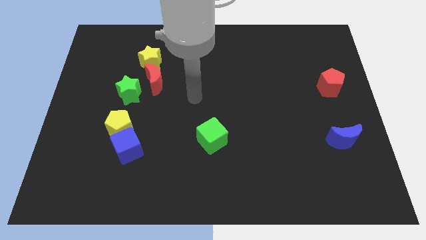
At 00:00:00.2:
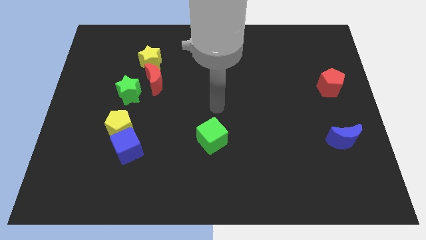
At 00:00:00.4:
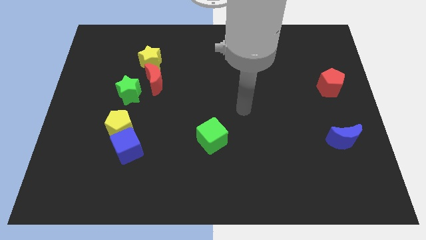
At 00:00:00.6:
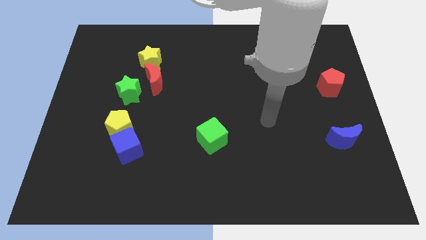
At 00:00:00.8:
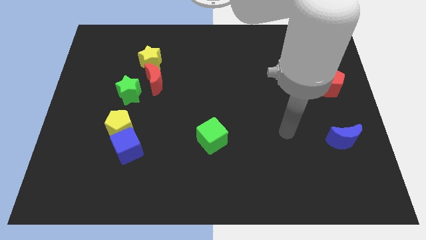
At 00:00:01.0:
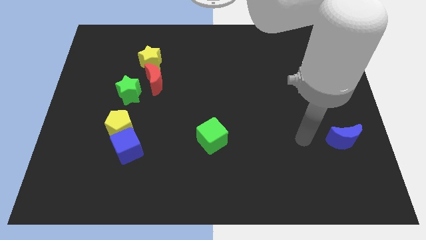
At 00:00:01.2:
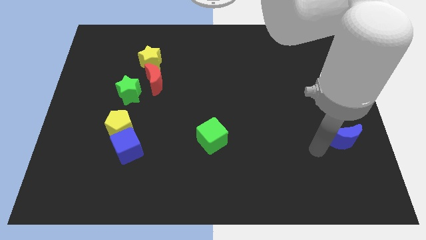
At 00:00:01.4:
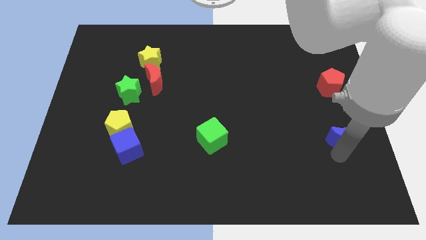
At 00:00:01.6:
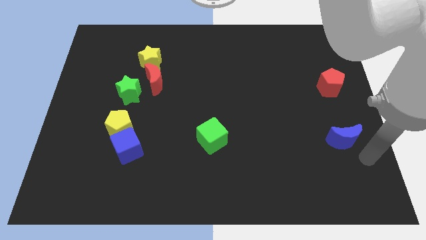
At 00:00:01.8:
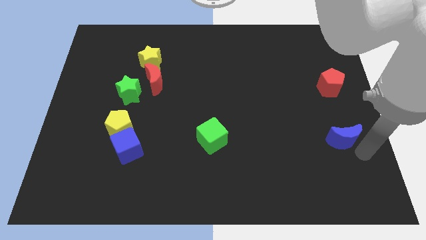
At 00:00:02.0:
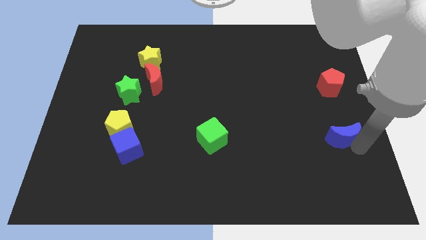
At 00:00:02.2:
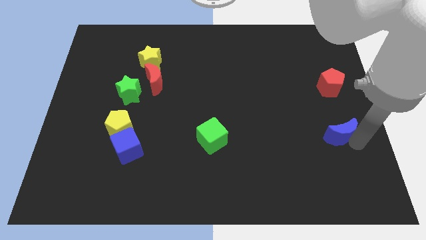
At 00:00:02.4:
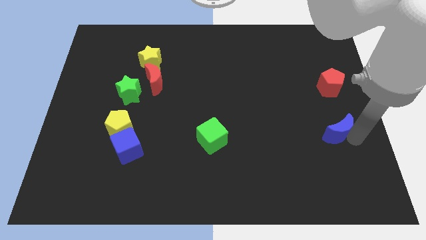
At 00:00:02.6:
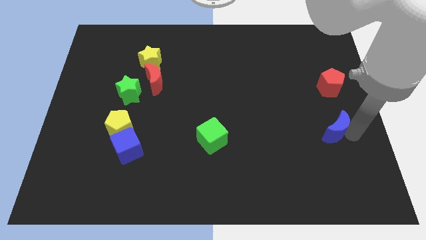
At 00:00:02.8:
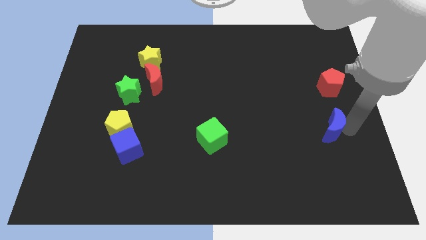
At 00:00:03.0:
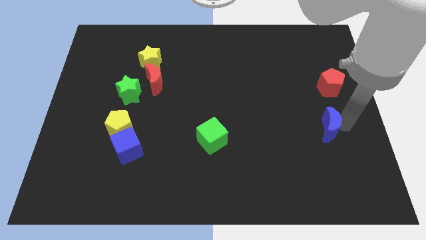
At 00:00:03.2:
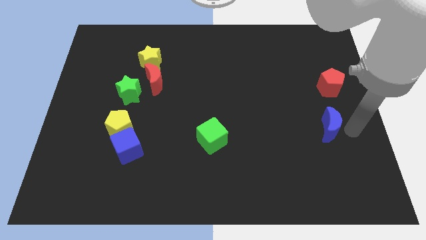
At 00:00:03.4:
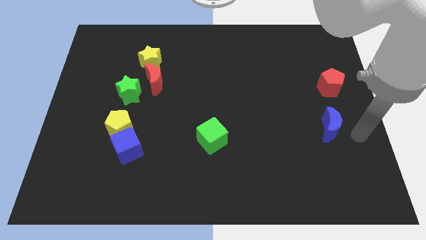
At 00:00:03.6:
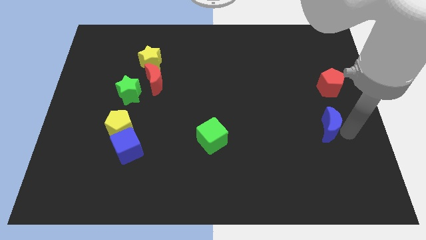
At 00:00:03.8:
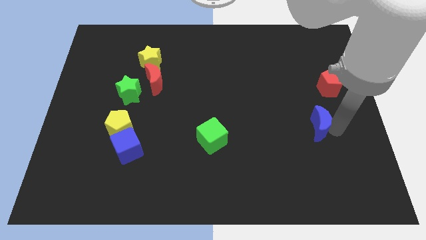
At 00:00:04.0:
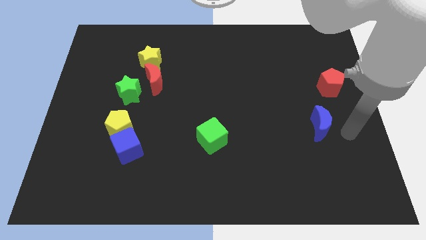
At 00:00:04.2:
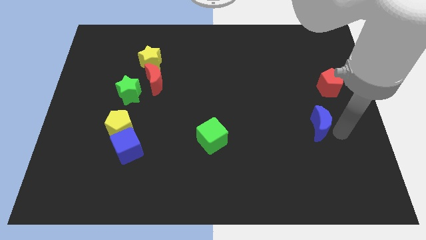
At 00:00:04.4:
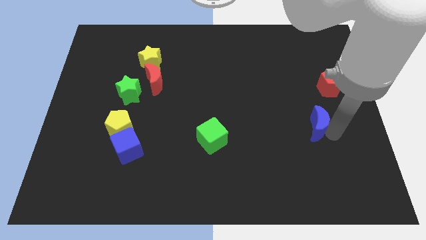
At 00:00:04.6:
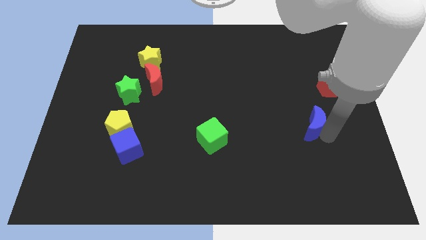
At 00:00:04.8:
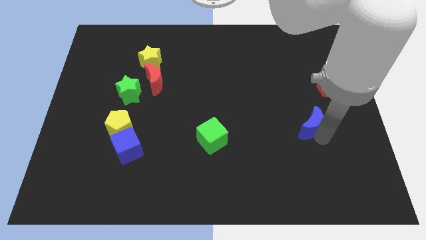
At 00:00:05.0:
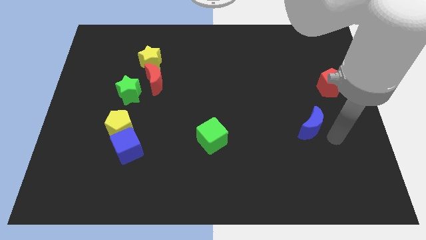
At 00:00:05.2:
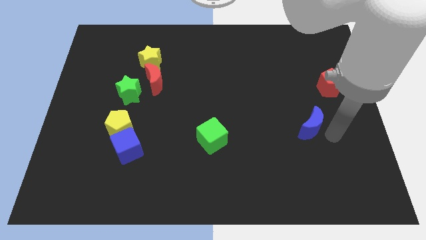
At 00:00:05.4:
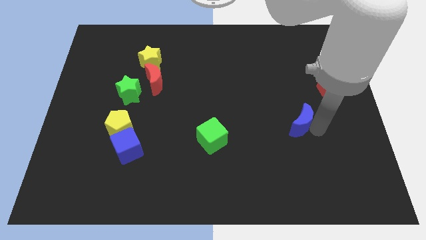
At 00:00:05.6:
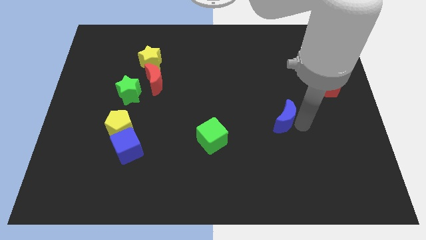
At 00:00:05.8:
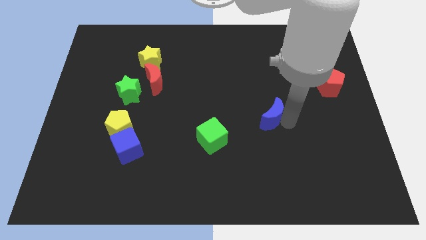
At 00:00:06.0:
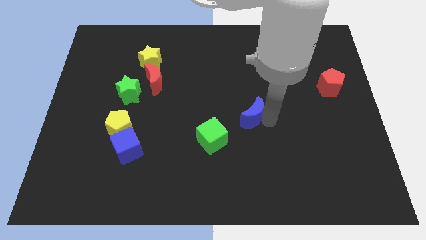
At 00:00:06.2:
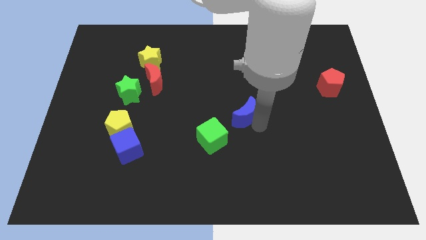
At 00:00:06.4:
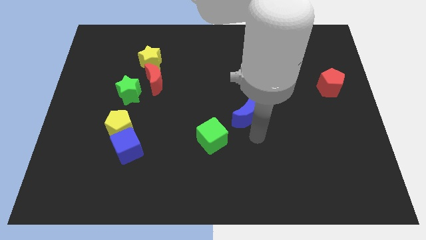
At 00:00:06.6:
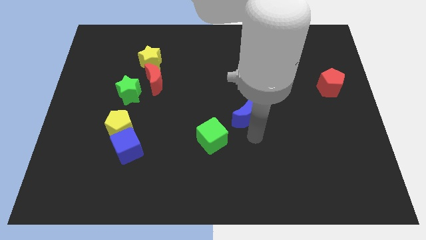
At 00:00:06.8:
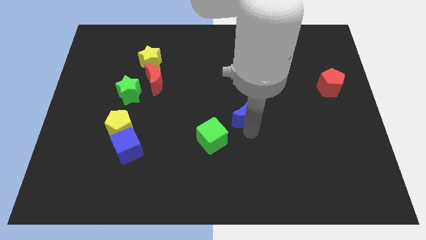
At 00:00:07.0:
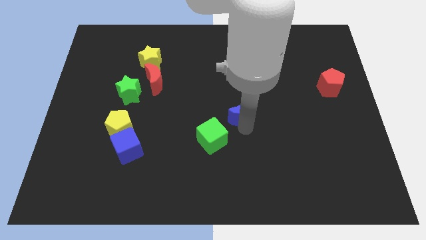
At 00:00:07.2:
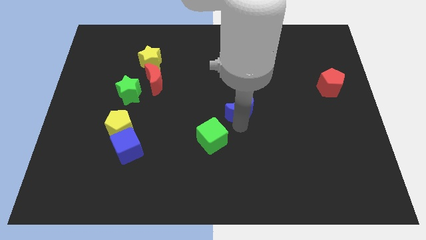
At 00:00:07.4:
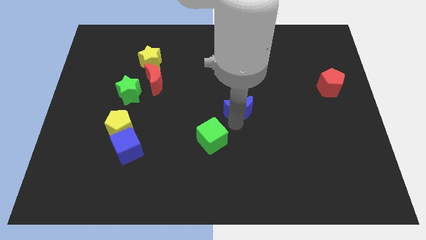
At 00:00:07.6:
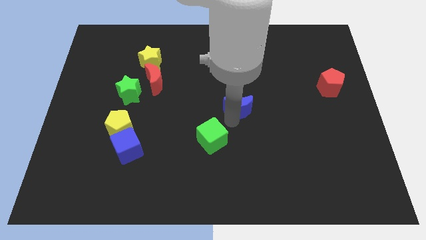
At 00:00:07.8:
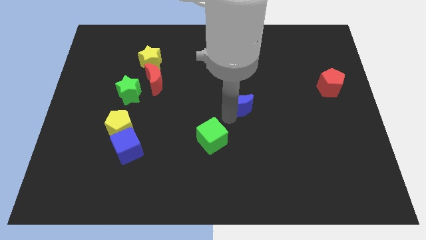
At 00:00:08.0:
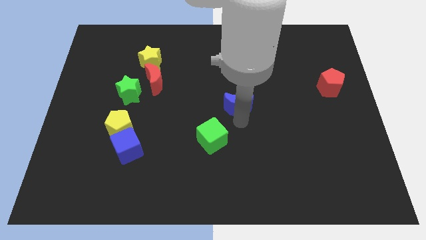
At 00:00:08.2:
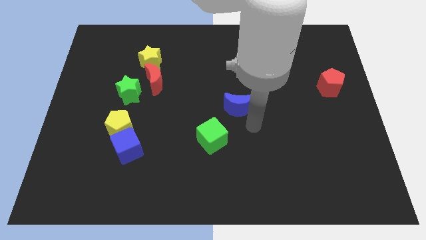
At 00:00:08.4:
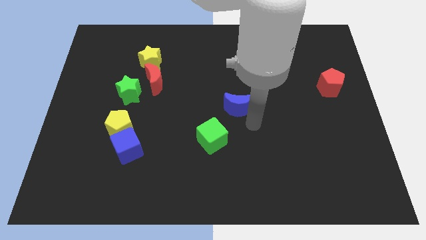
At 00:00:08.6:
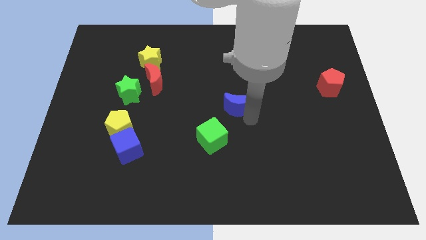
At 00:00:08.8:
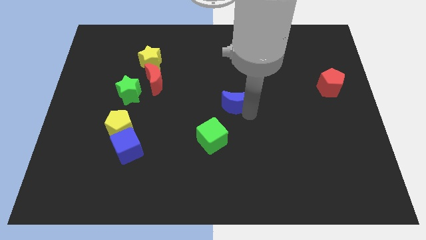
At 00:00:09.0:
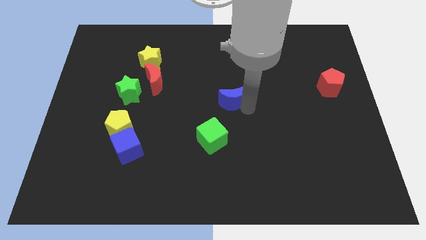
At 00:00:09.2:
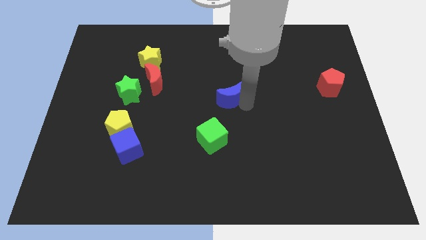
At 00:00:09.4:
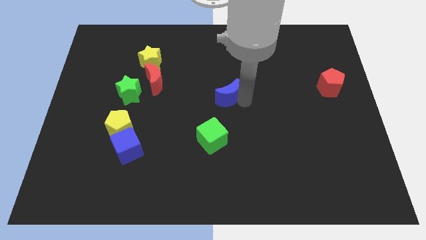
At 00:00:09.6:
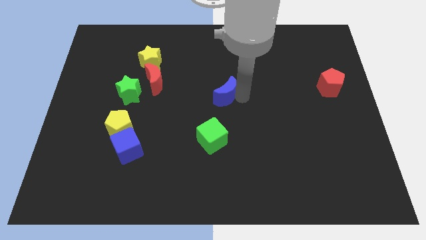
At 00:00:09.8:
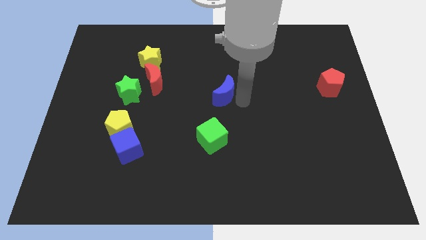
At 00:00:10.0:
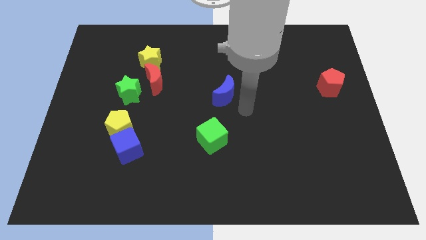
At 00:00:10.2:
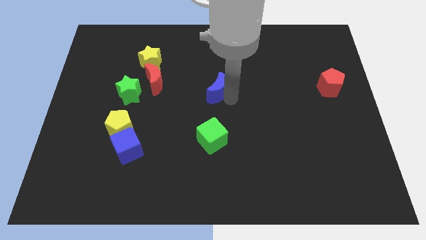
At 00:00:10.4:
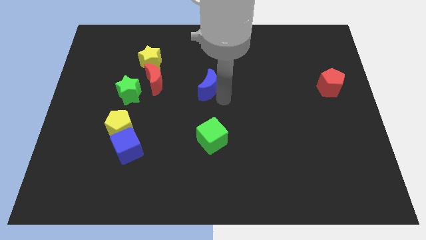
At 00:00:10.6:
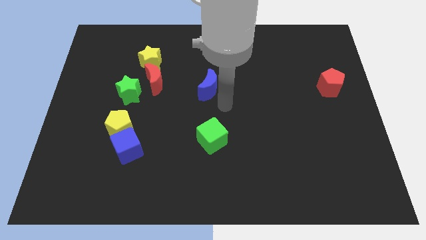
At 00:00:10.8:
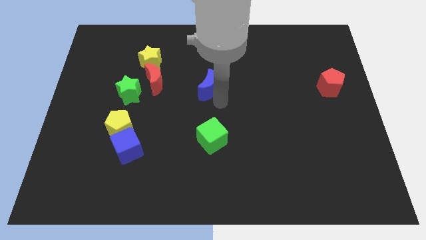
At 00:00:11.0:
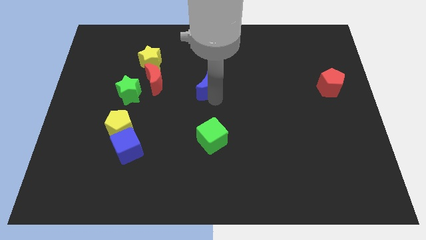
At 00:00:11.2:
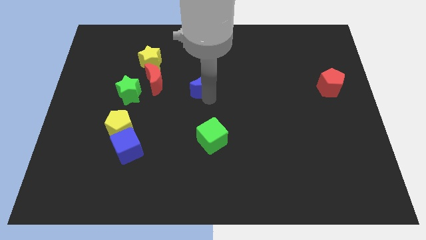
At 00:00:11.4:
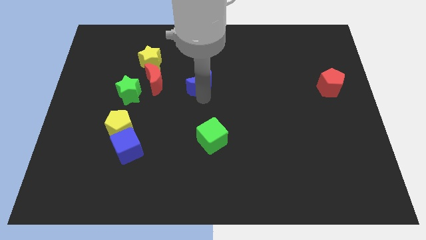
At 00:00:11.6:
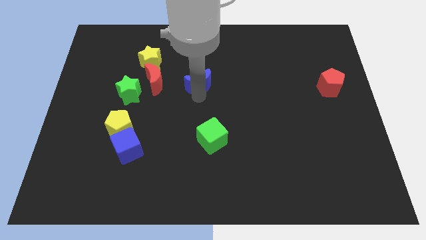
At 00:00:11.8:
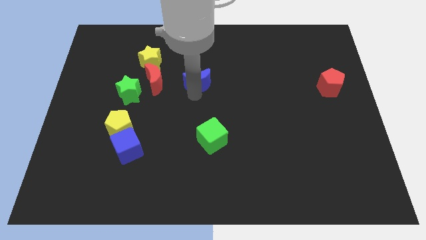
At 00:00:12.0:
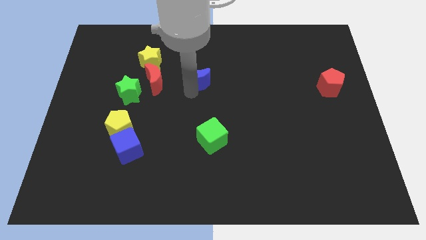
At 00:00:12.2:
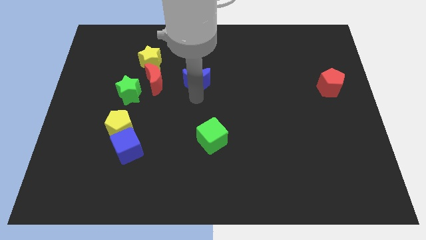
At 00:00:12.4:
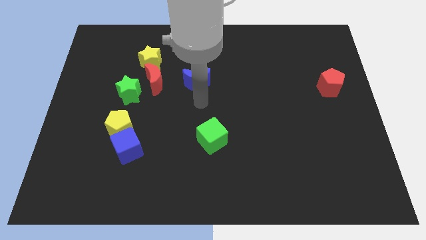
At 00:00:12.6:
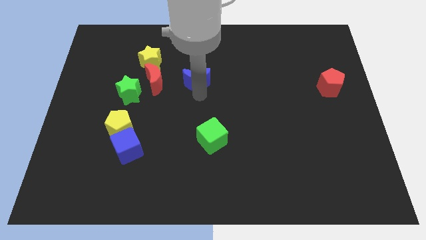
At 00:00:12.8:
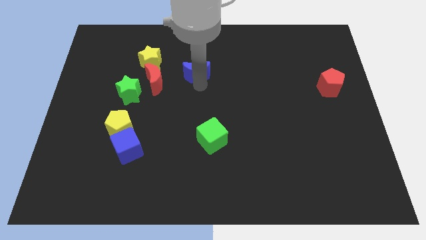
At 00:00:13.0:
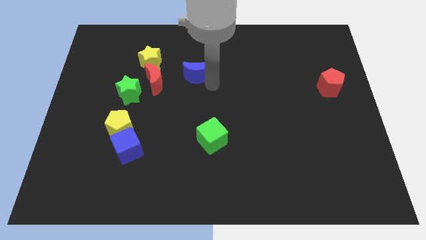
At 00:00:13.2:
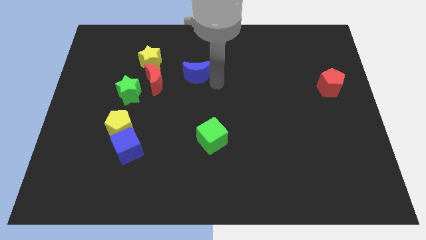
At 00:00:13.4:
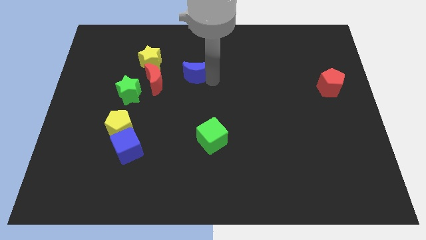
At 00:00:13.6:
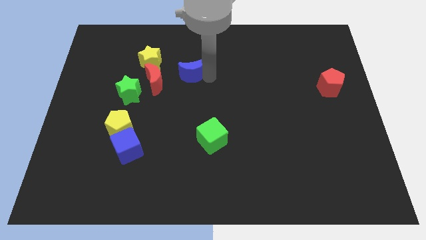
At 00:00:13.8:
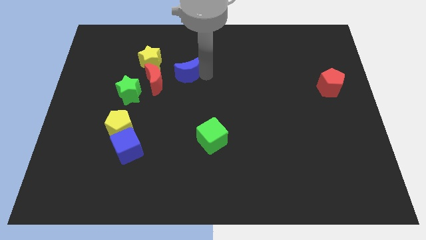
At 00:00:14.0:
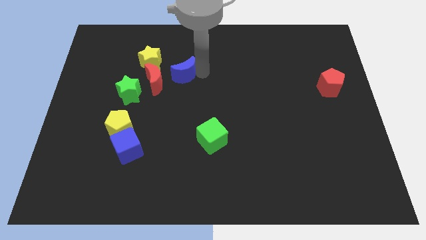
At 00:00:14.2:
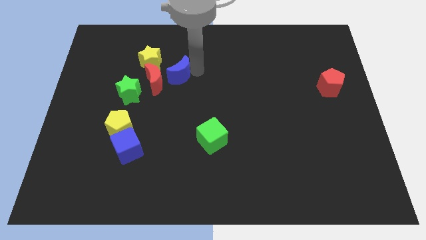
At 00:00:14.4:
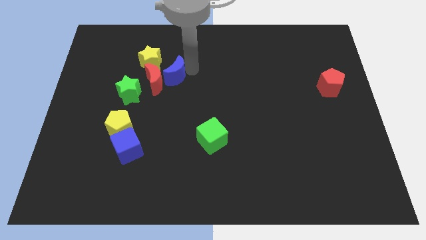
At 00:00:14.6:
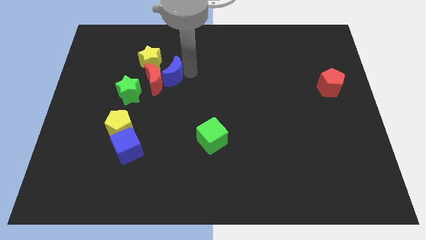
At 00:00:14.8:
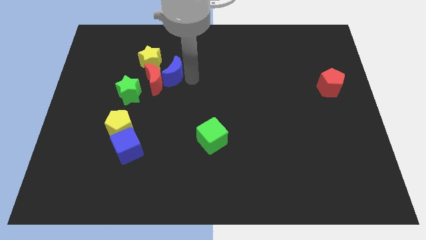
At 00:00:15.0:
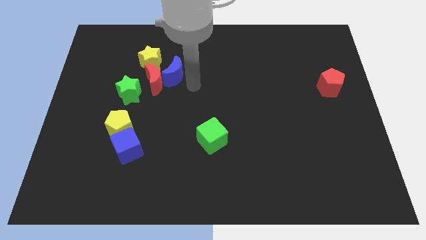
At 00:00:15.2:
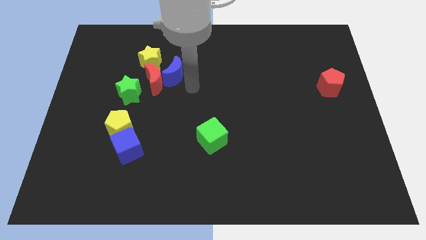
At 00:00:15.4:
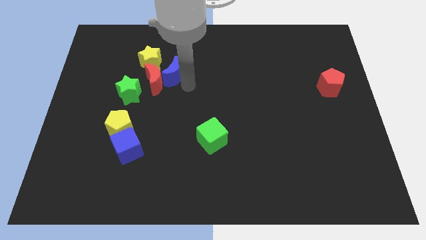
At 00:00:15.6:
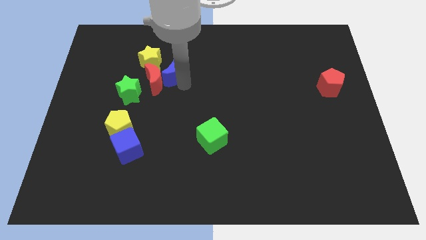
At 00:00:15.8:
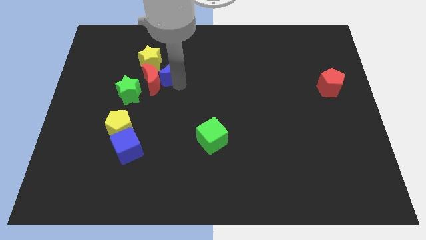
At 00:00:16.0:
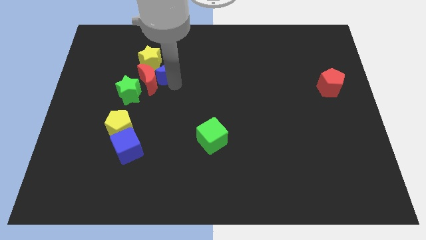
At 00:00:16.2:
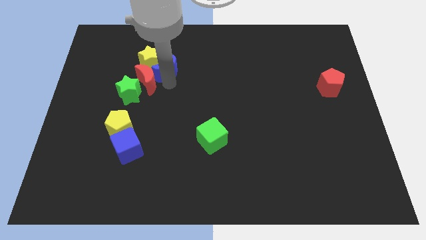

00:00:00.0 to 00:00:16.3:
slide the blue moon next to the yellow star
